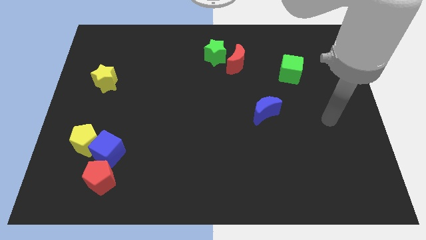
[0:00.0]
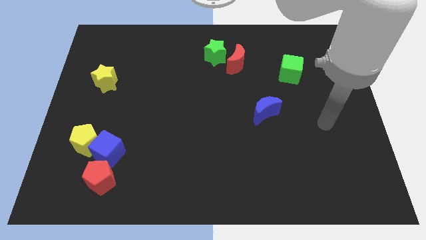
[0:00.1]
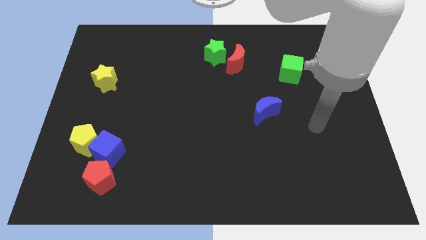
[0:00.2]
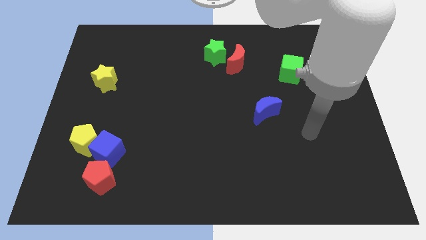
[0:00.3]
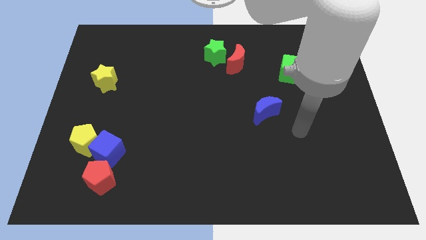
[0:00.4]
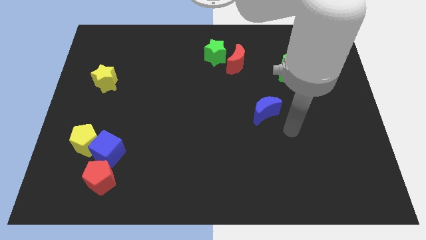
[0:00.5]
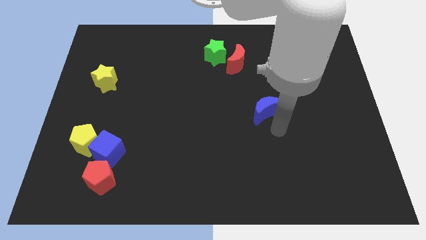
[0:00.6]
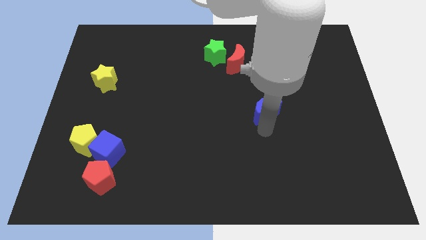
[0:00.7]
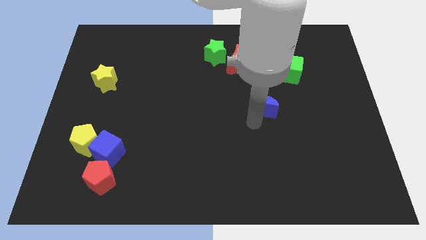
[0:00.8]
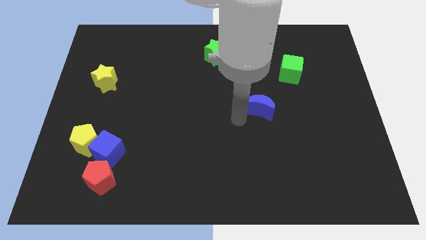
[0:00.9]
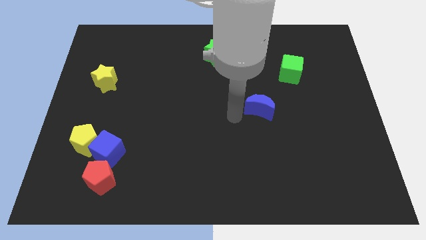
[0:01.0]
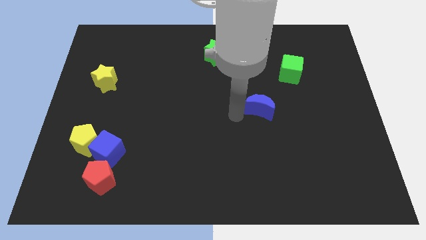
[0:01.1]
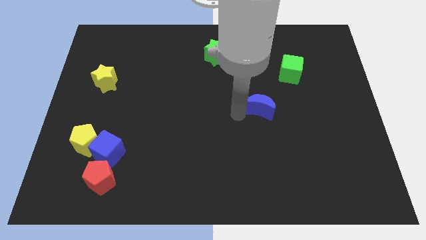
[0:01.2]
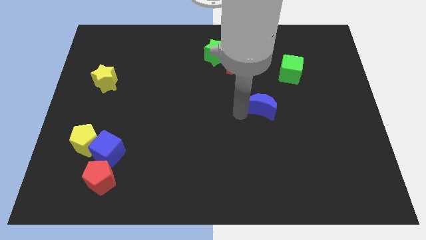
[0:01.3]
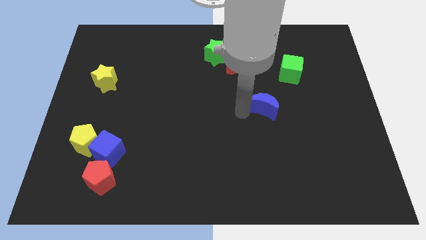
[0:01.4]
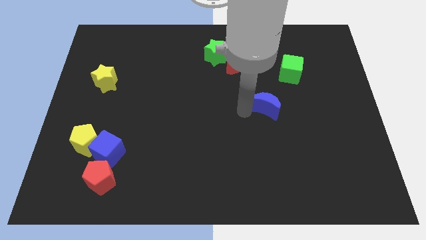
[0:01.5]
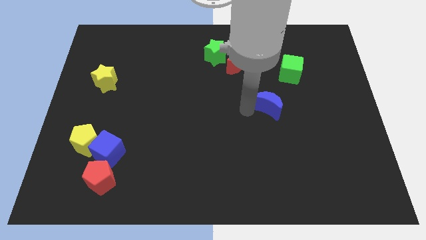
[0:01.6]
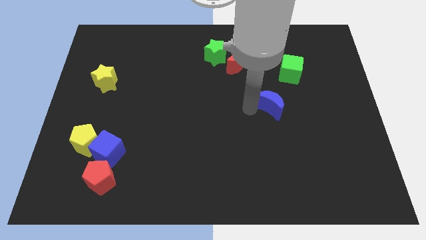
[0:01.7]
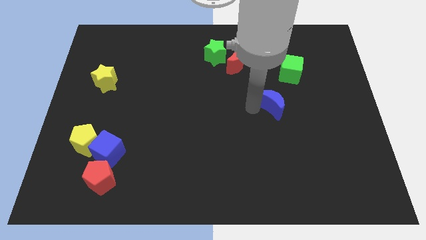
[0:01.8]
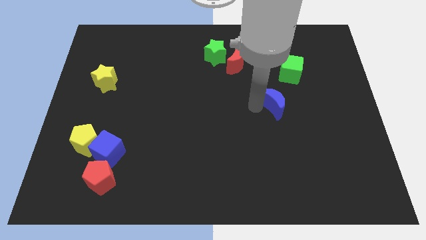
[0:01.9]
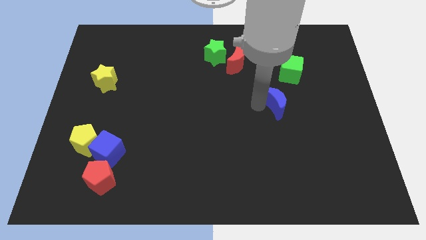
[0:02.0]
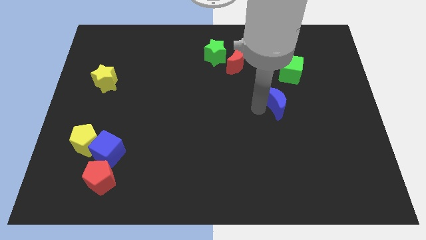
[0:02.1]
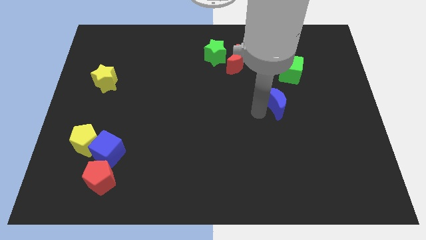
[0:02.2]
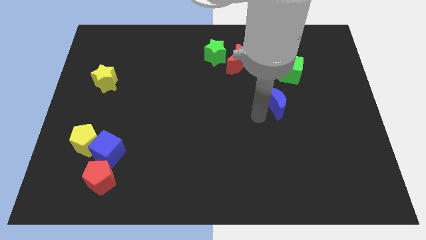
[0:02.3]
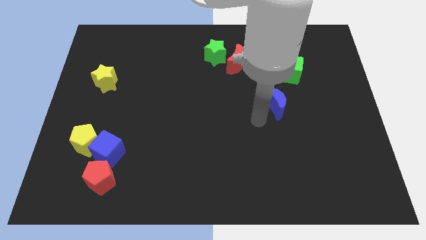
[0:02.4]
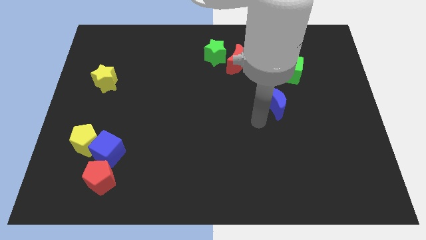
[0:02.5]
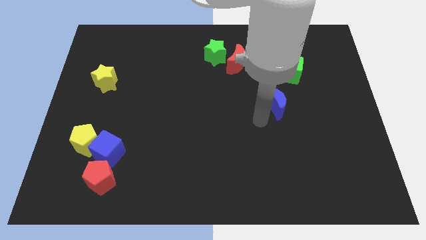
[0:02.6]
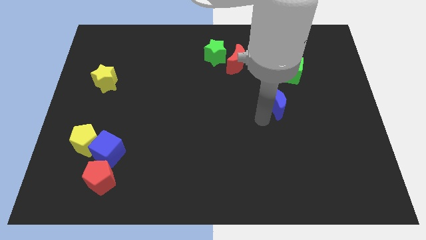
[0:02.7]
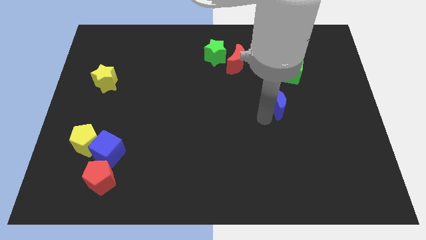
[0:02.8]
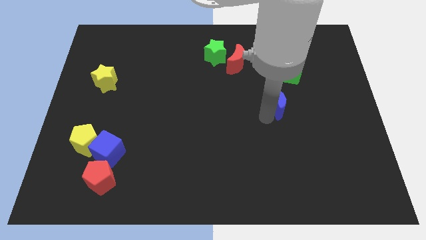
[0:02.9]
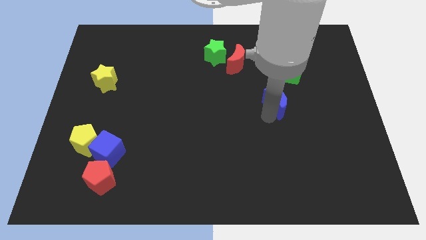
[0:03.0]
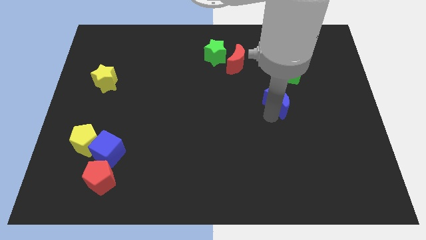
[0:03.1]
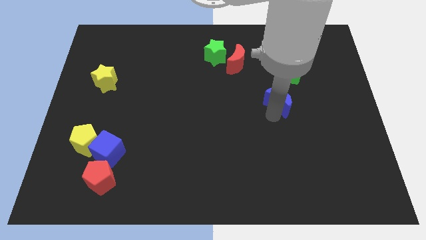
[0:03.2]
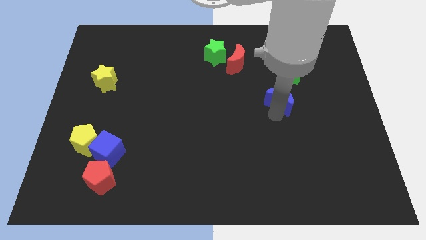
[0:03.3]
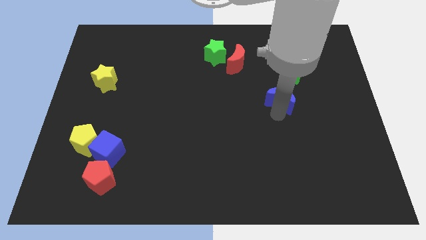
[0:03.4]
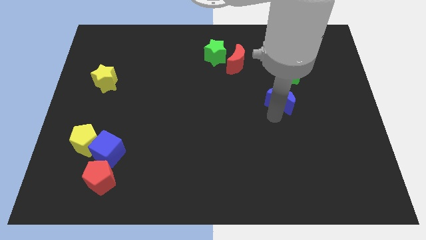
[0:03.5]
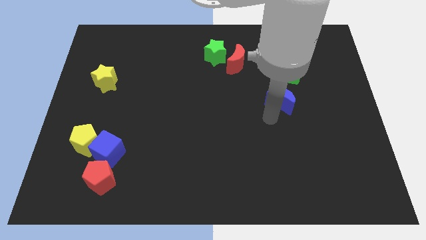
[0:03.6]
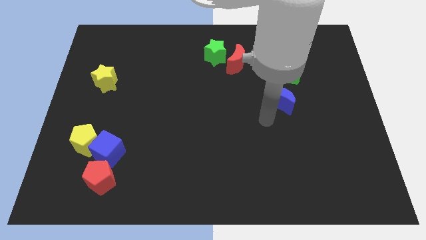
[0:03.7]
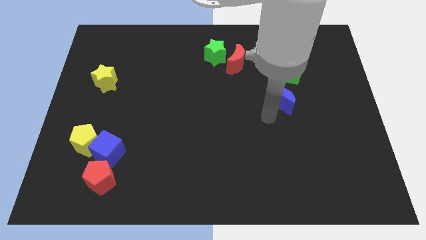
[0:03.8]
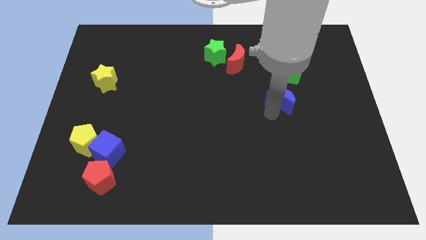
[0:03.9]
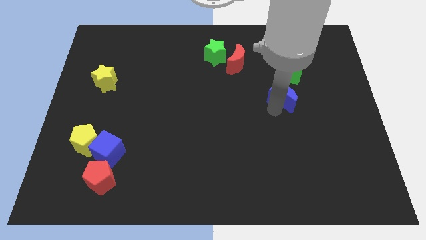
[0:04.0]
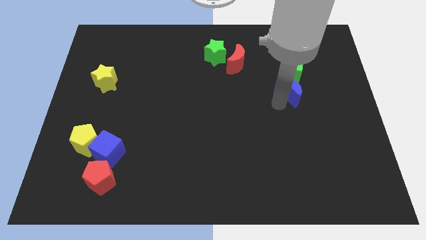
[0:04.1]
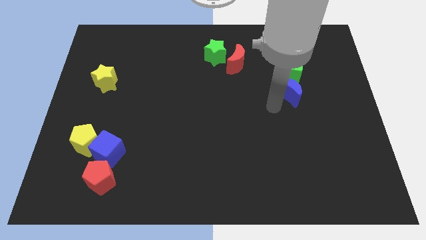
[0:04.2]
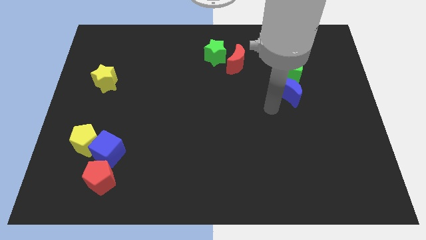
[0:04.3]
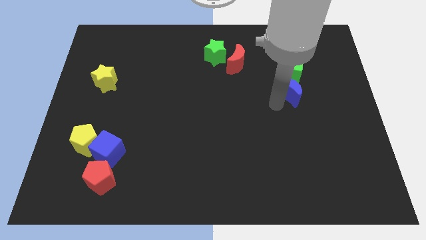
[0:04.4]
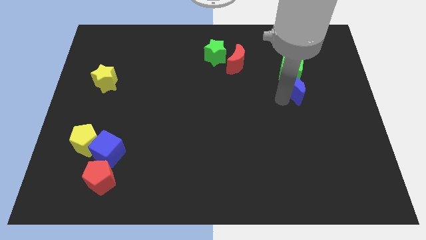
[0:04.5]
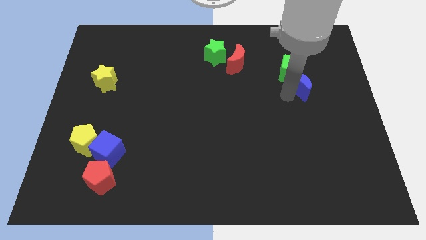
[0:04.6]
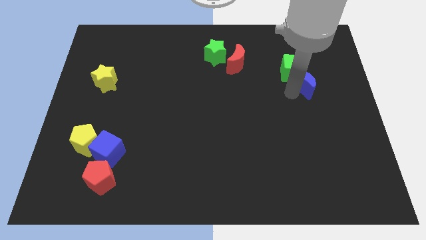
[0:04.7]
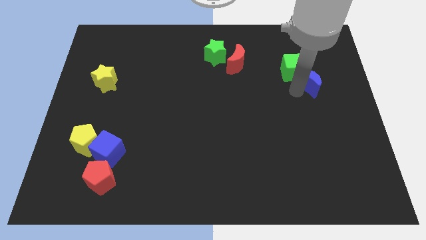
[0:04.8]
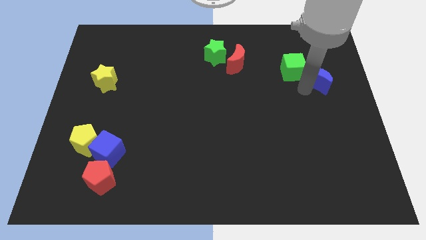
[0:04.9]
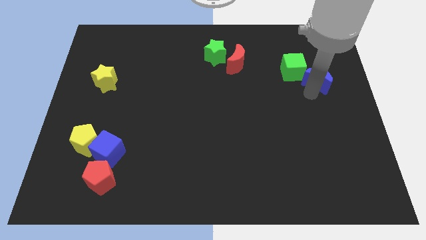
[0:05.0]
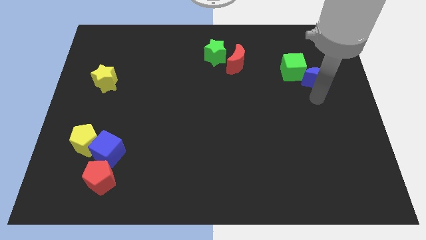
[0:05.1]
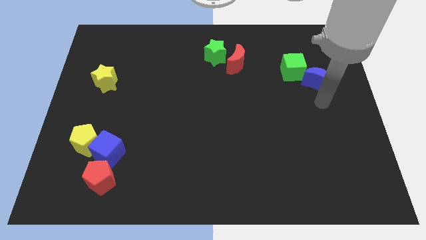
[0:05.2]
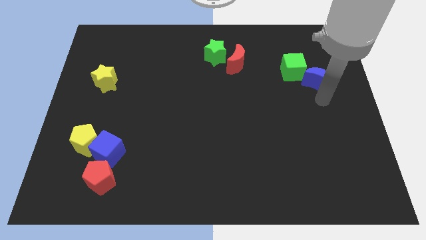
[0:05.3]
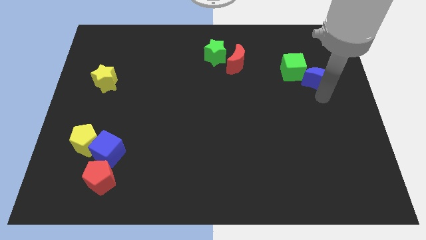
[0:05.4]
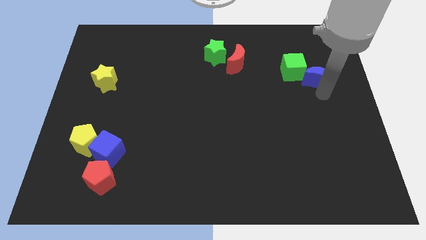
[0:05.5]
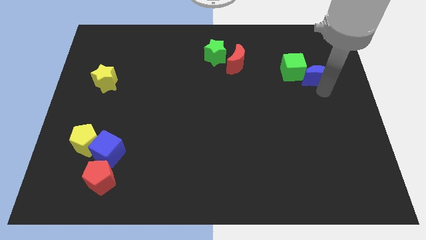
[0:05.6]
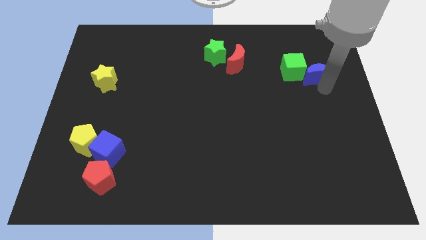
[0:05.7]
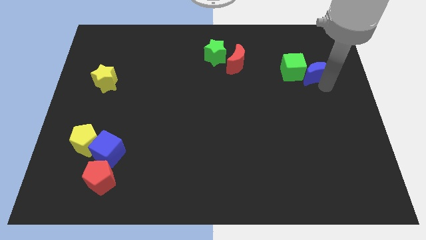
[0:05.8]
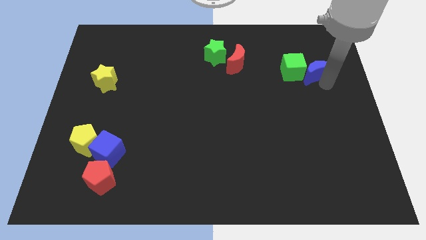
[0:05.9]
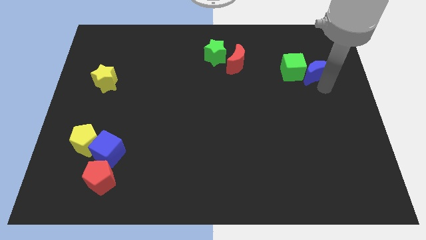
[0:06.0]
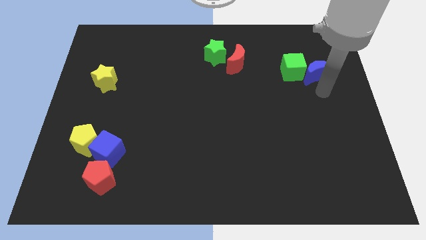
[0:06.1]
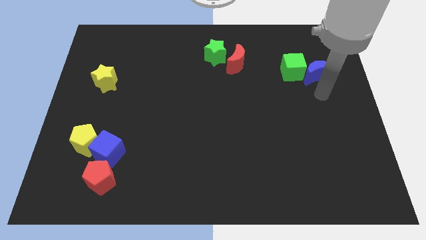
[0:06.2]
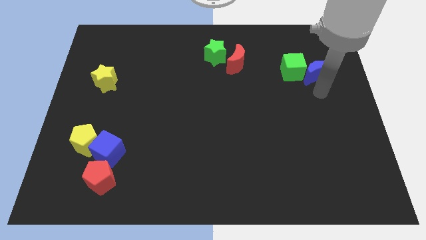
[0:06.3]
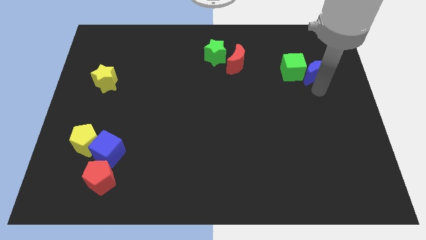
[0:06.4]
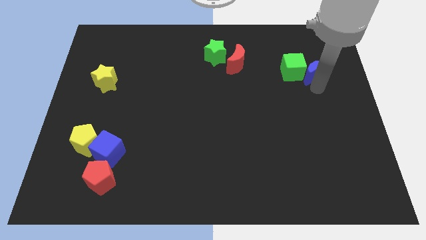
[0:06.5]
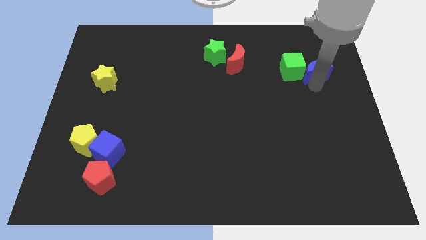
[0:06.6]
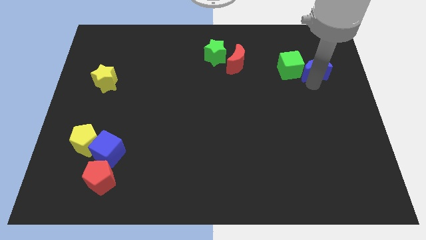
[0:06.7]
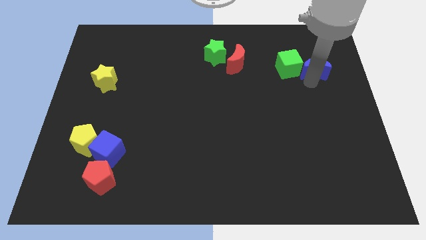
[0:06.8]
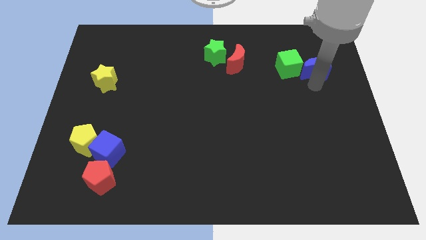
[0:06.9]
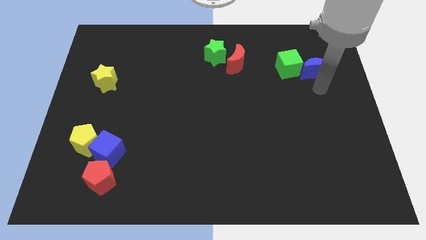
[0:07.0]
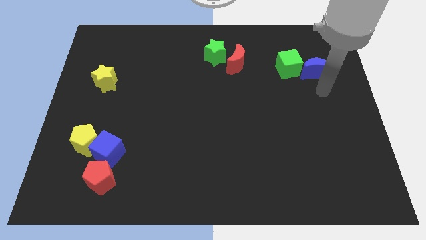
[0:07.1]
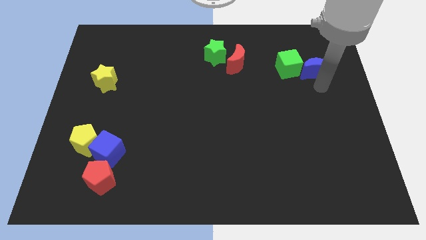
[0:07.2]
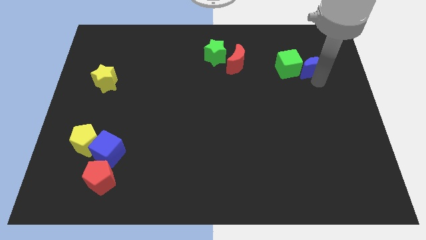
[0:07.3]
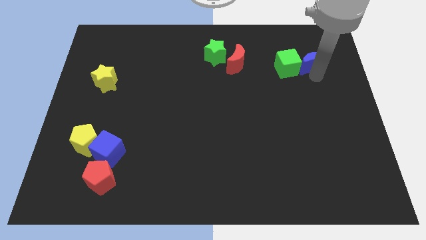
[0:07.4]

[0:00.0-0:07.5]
move the blue moon diagonally up and to the right of the green cube
